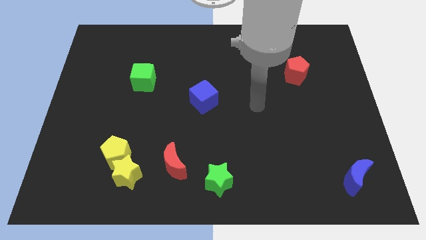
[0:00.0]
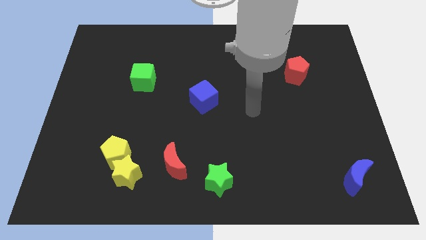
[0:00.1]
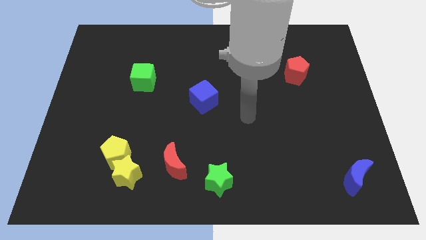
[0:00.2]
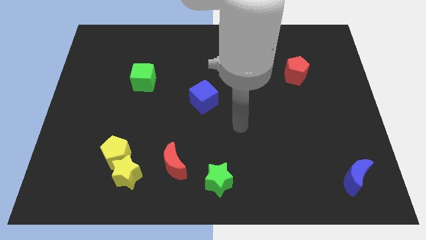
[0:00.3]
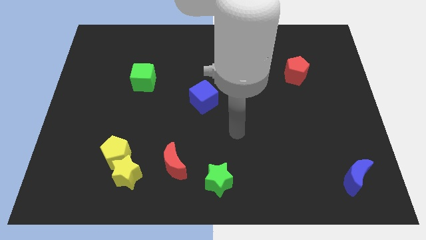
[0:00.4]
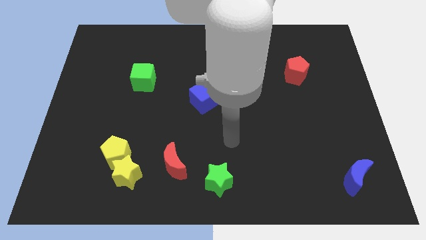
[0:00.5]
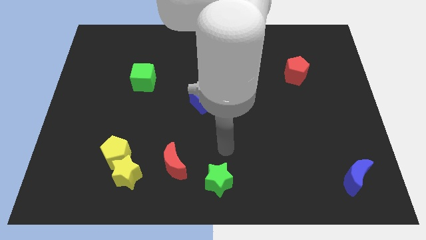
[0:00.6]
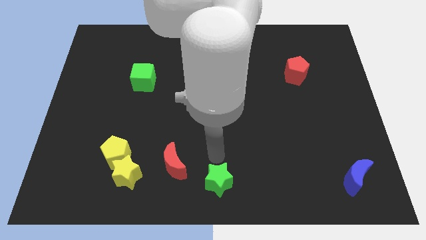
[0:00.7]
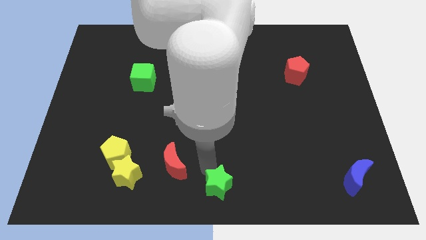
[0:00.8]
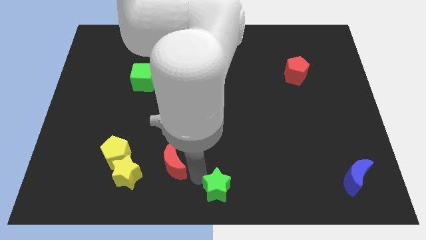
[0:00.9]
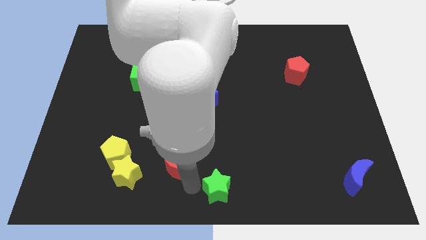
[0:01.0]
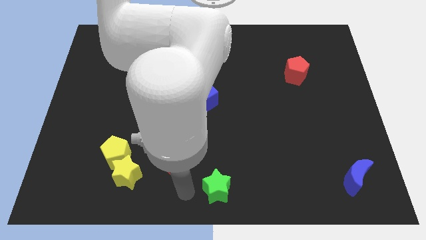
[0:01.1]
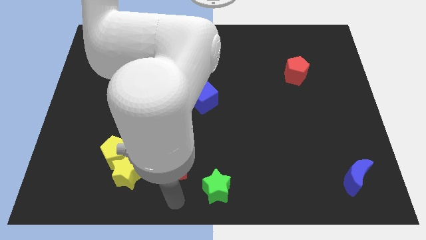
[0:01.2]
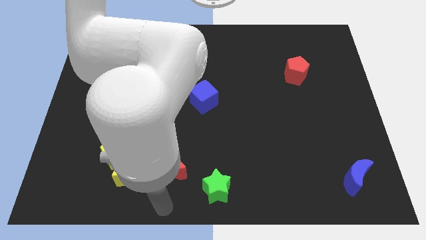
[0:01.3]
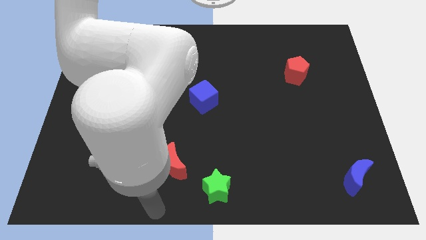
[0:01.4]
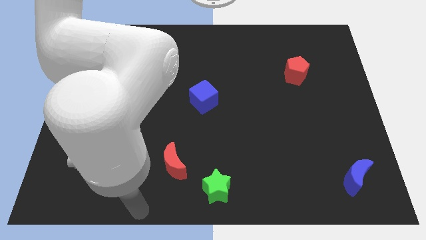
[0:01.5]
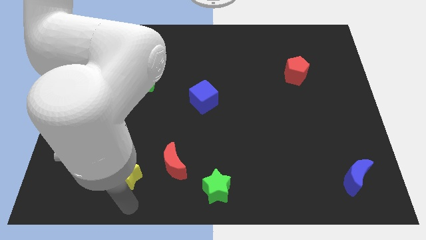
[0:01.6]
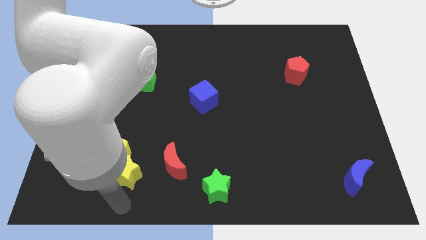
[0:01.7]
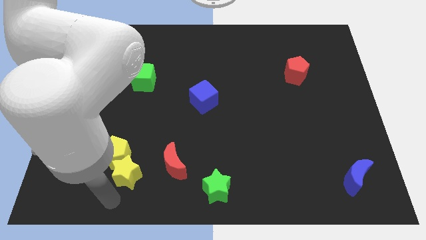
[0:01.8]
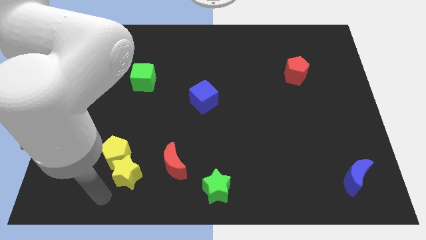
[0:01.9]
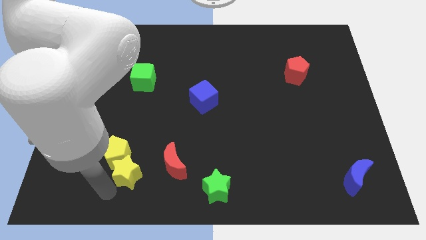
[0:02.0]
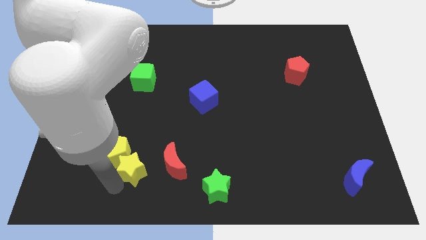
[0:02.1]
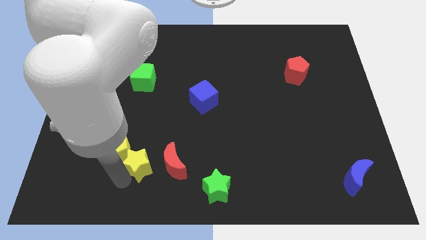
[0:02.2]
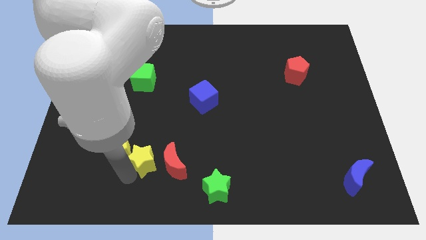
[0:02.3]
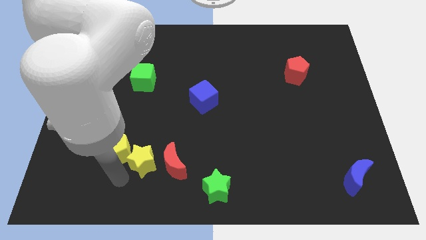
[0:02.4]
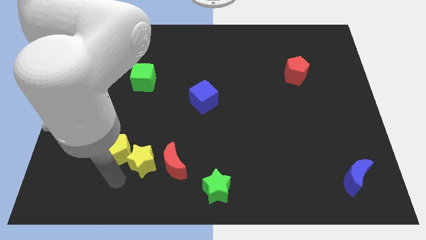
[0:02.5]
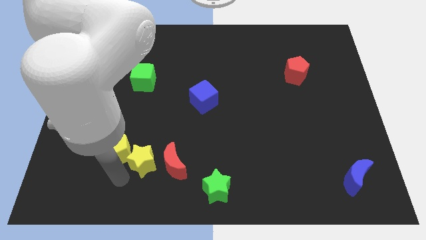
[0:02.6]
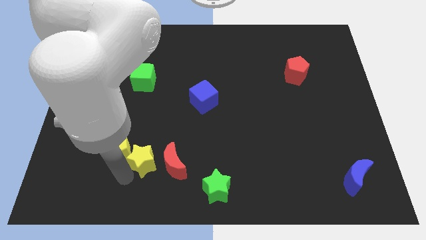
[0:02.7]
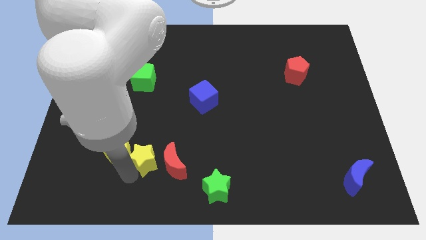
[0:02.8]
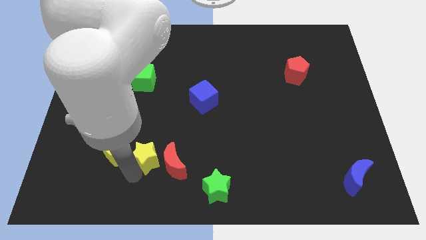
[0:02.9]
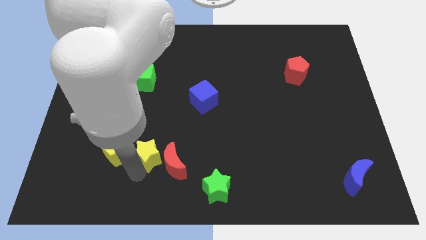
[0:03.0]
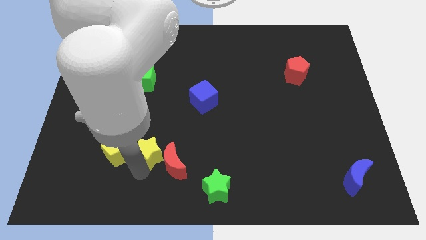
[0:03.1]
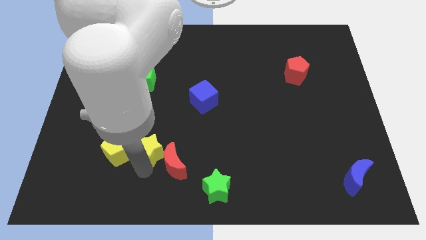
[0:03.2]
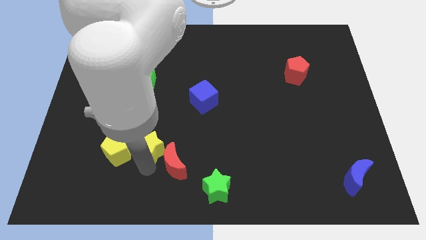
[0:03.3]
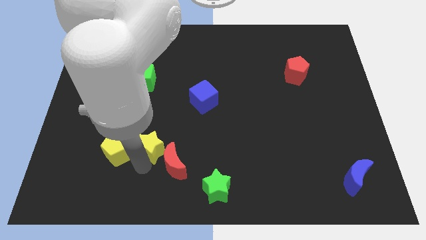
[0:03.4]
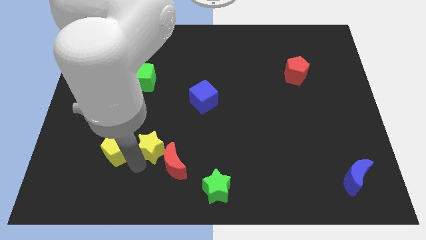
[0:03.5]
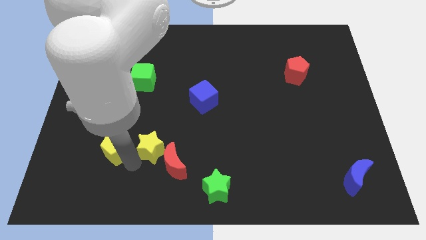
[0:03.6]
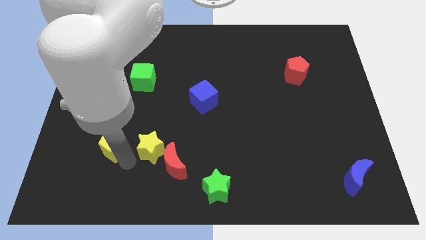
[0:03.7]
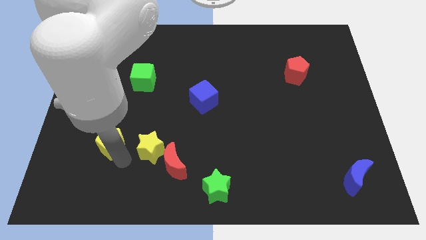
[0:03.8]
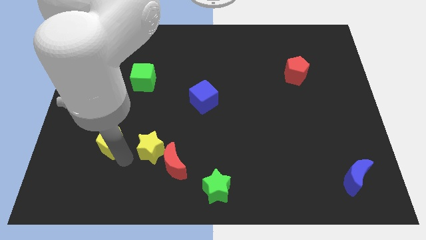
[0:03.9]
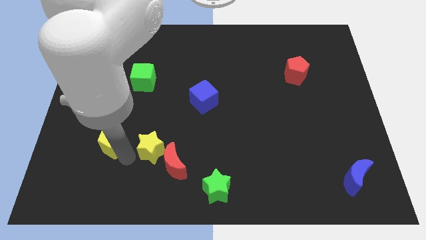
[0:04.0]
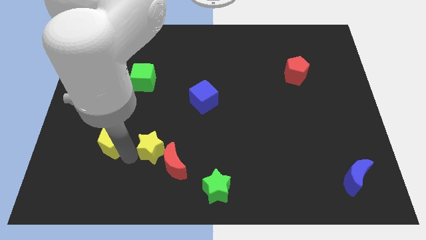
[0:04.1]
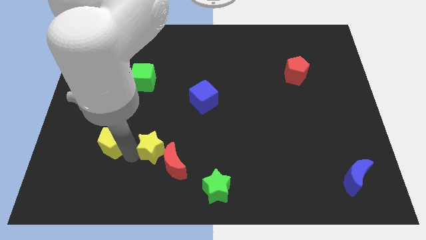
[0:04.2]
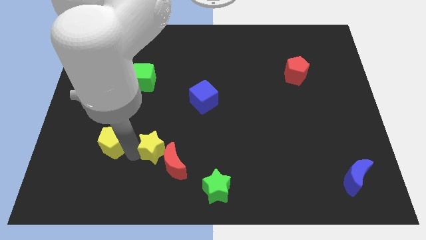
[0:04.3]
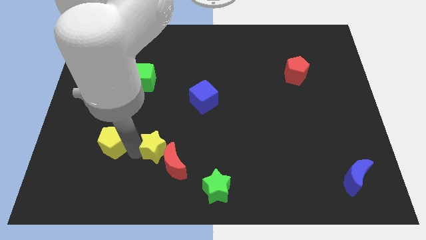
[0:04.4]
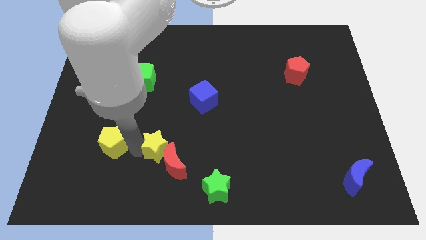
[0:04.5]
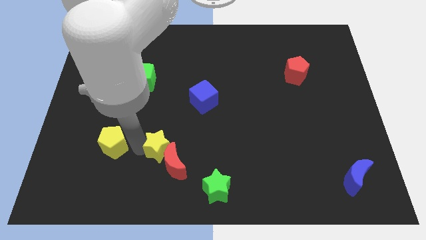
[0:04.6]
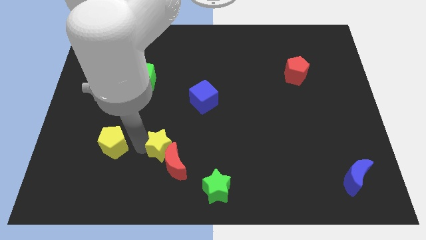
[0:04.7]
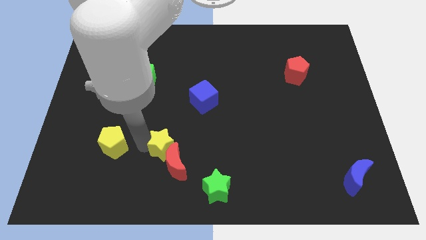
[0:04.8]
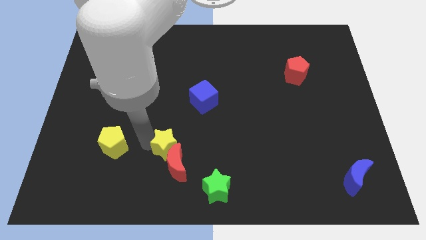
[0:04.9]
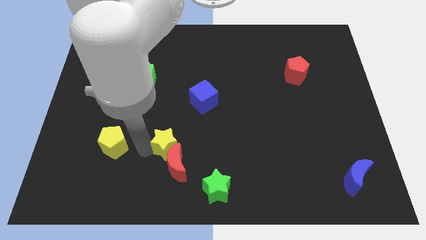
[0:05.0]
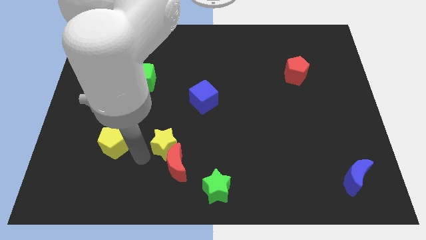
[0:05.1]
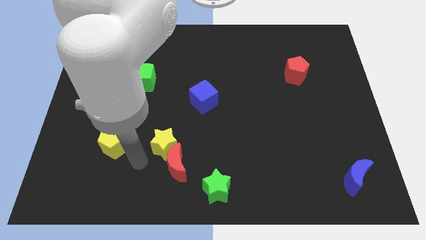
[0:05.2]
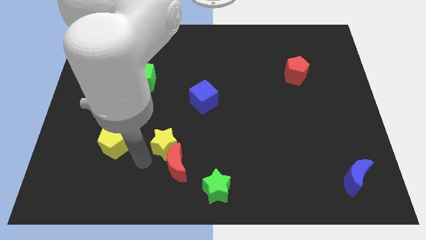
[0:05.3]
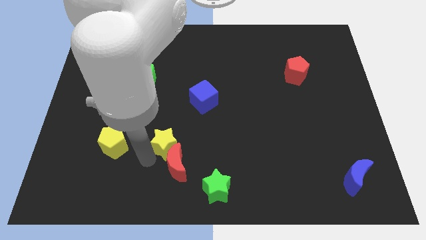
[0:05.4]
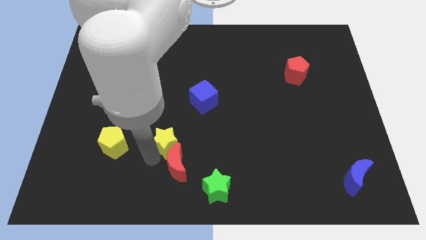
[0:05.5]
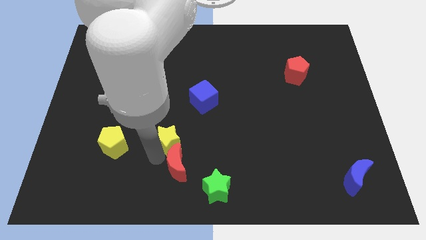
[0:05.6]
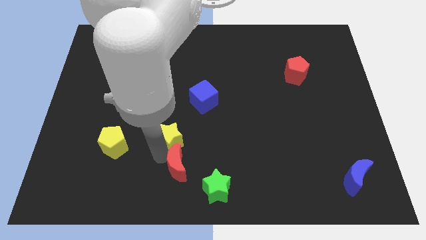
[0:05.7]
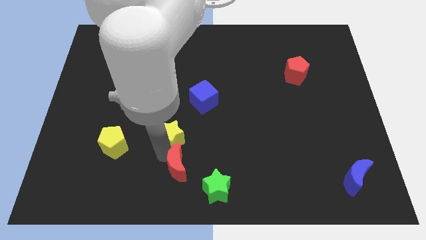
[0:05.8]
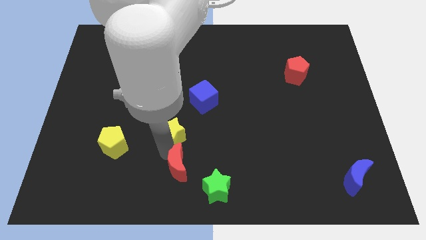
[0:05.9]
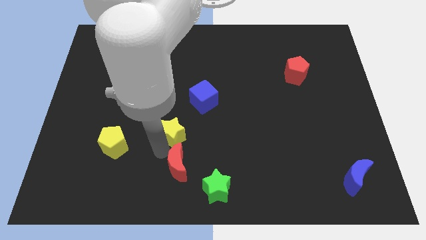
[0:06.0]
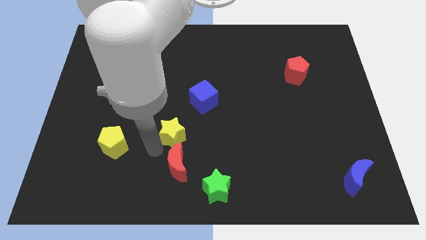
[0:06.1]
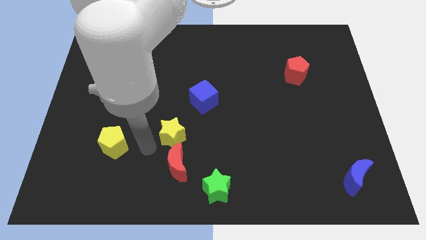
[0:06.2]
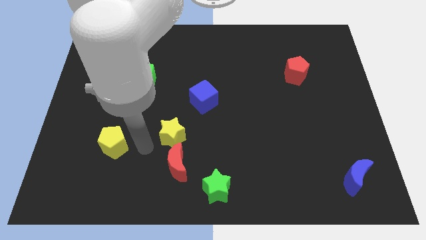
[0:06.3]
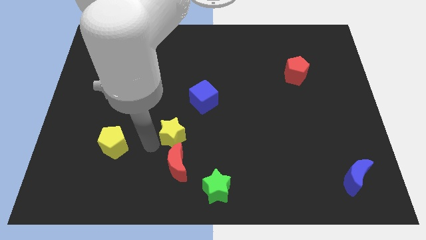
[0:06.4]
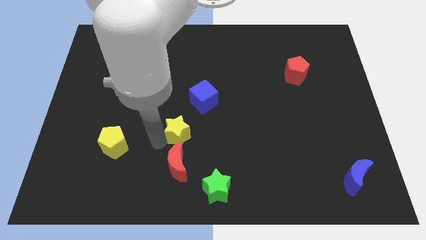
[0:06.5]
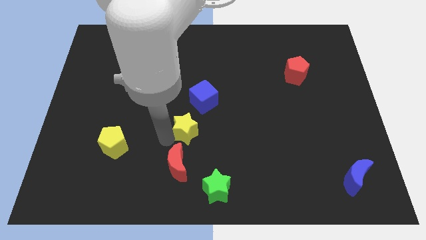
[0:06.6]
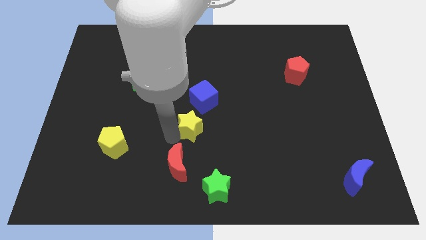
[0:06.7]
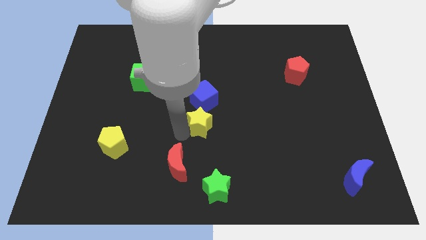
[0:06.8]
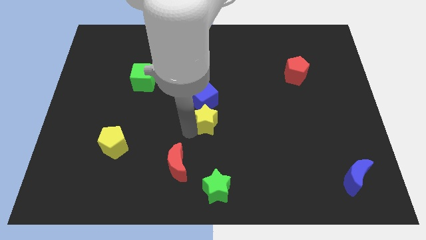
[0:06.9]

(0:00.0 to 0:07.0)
move the yellow star upwards and then right

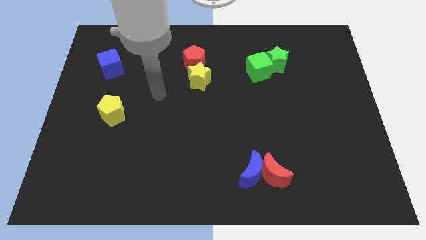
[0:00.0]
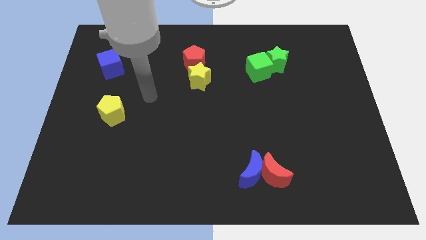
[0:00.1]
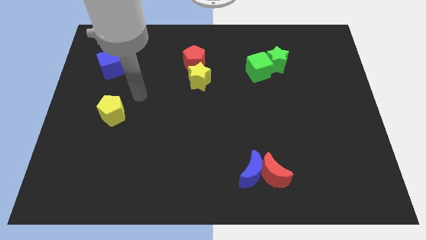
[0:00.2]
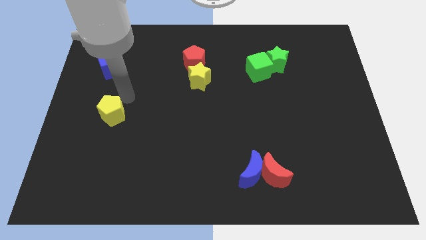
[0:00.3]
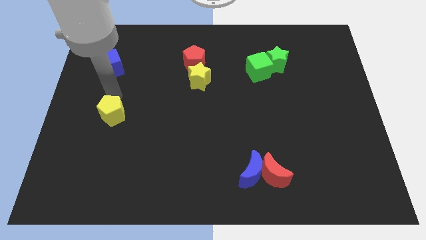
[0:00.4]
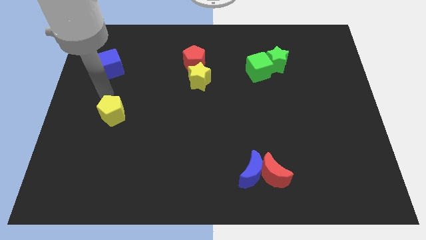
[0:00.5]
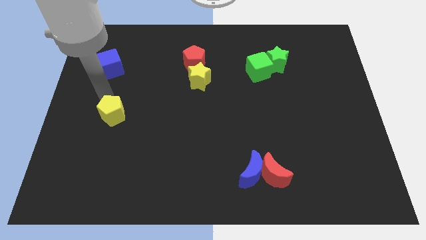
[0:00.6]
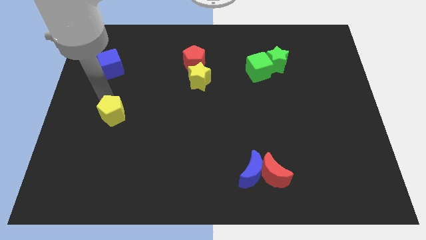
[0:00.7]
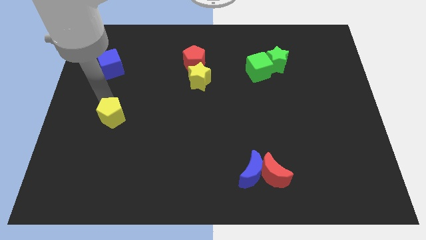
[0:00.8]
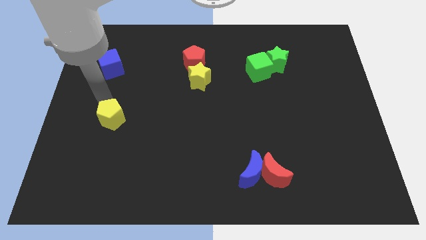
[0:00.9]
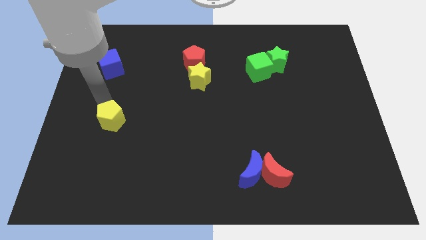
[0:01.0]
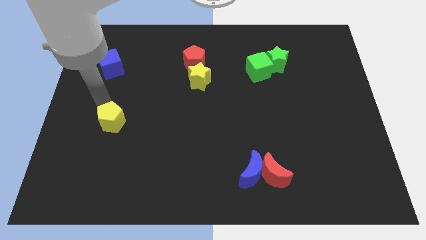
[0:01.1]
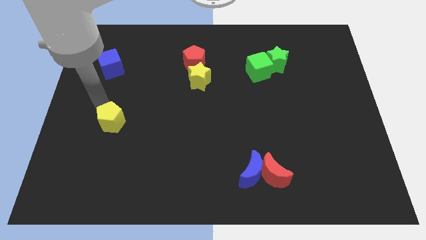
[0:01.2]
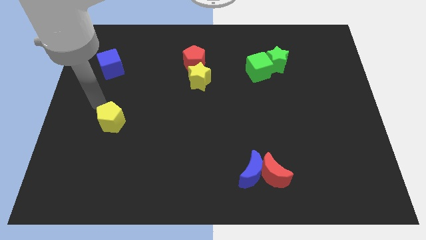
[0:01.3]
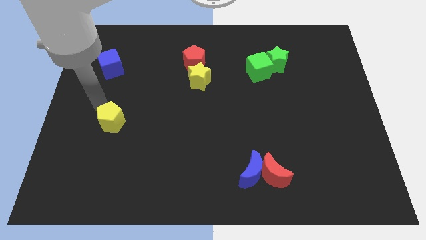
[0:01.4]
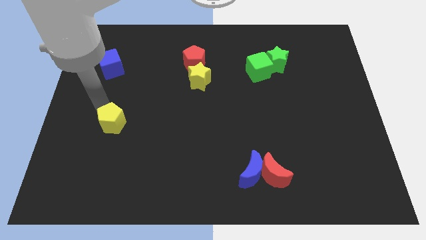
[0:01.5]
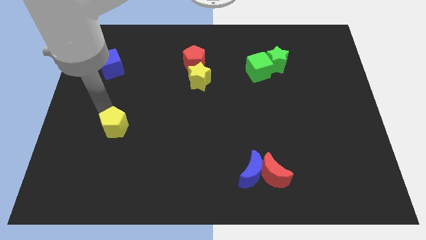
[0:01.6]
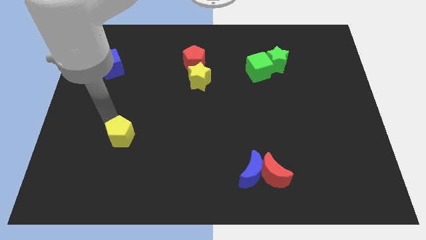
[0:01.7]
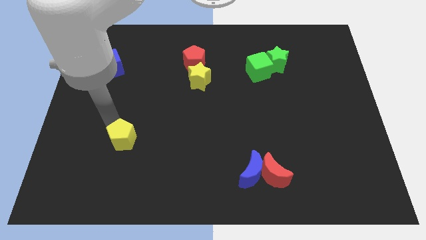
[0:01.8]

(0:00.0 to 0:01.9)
slightly push the yellow pentagon diagonally down and to the right
